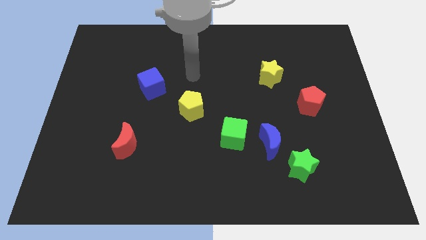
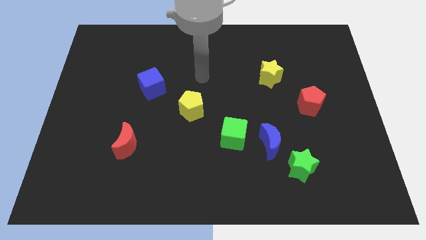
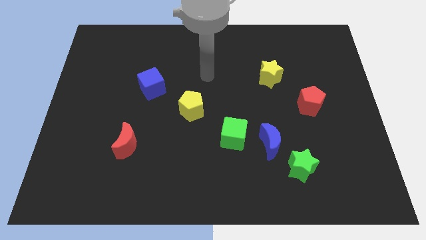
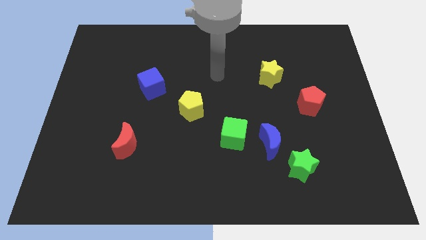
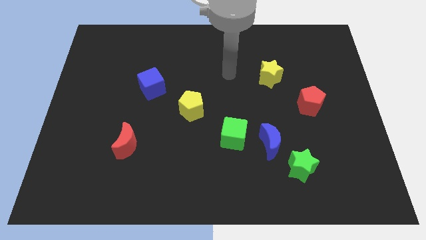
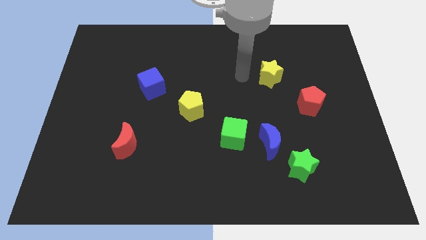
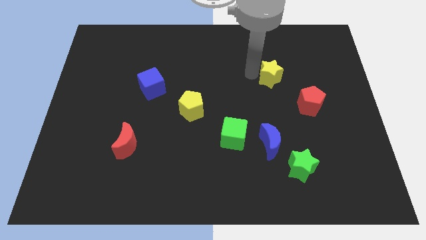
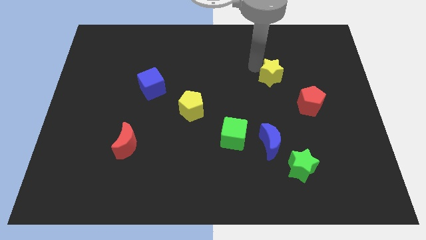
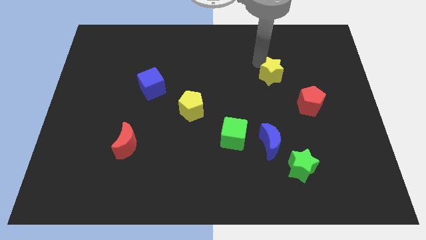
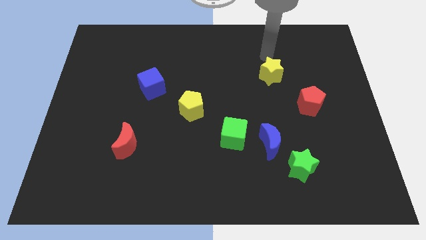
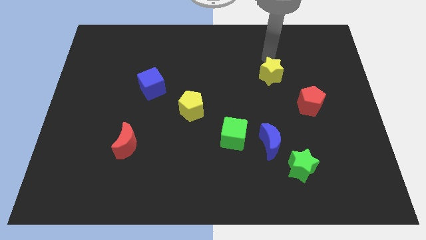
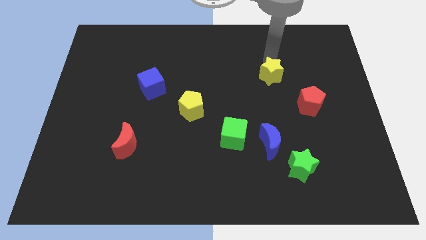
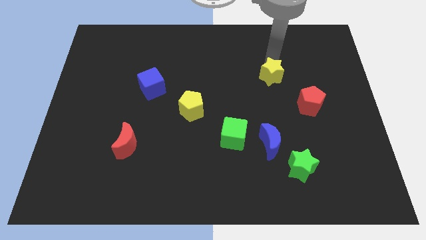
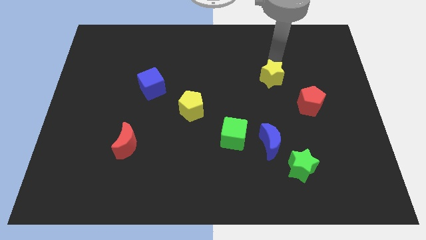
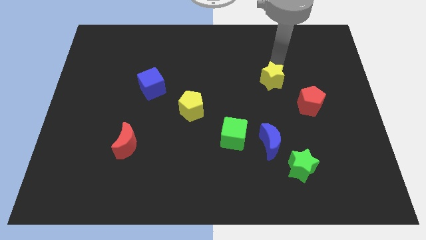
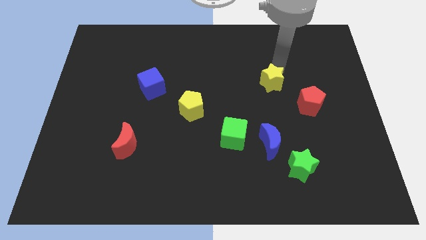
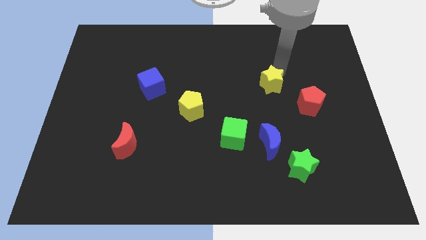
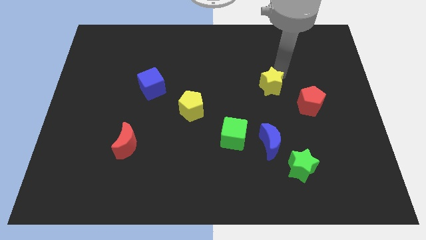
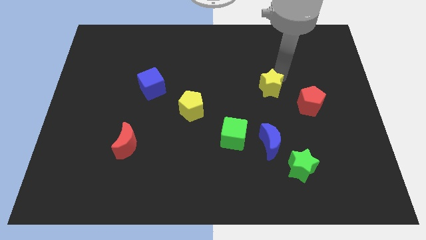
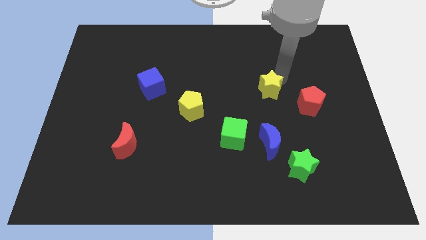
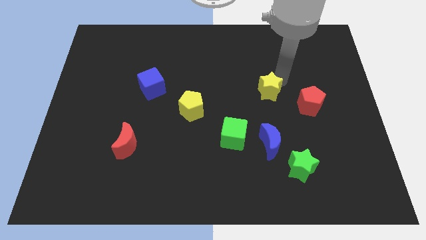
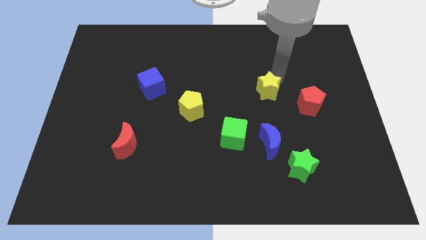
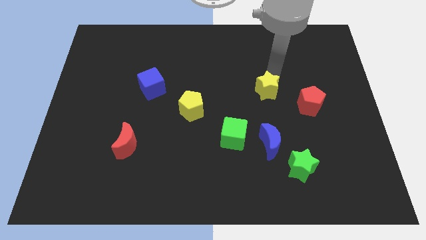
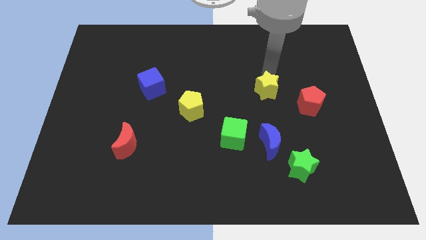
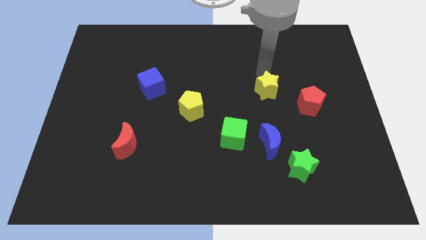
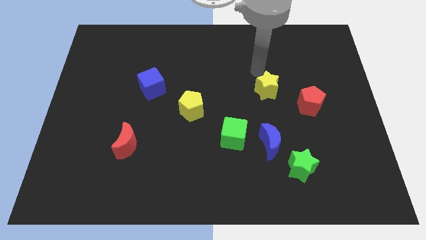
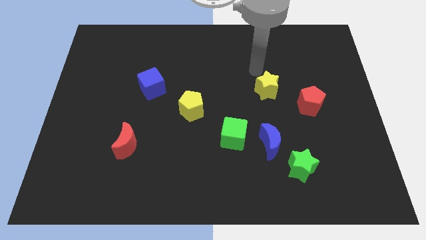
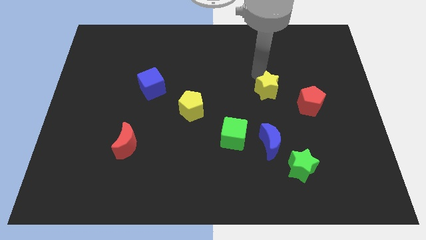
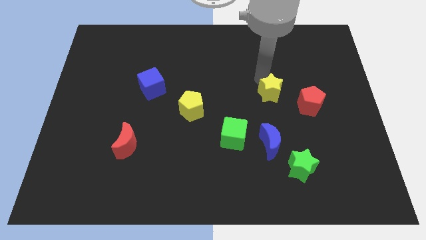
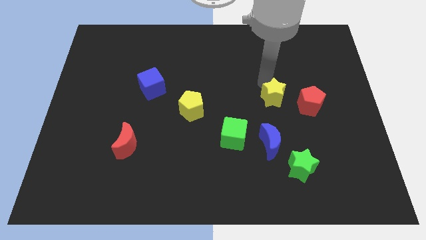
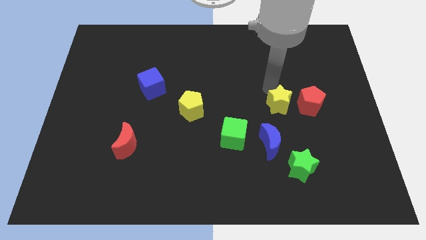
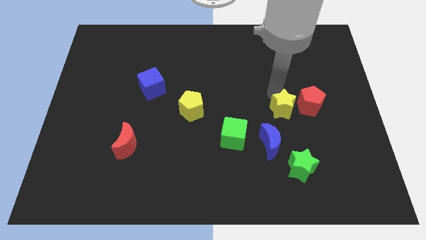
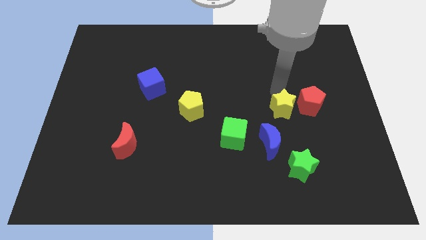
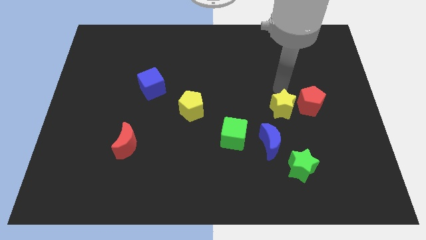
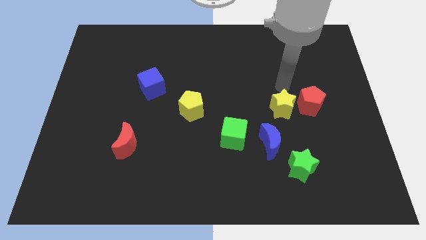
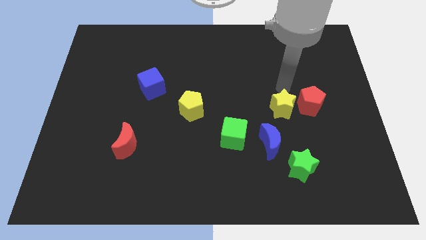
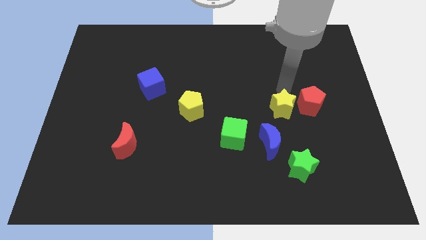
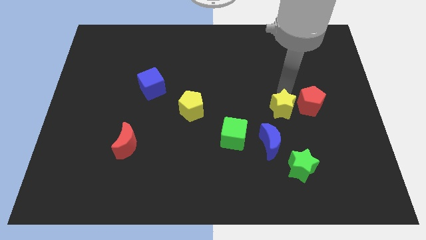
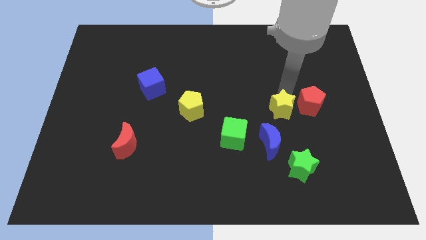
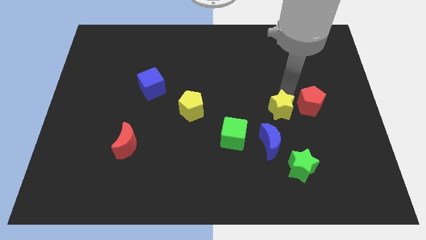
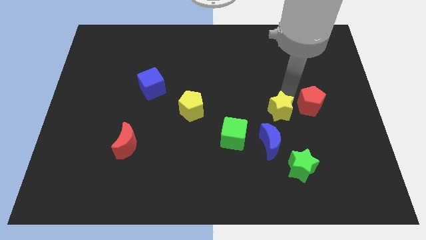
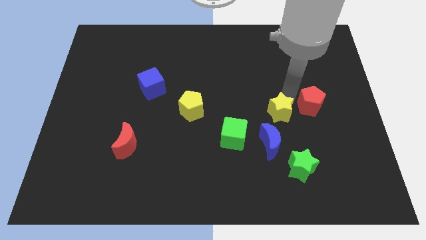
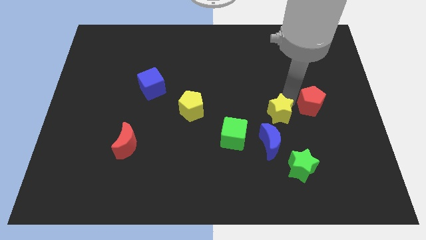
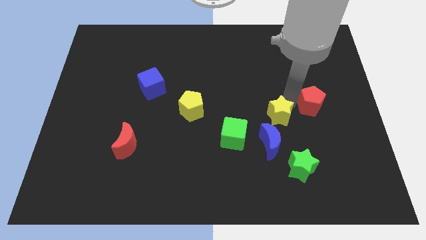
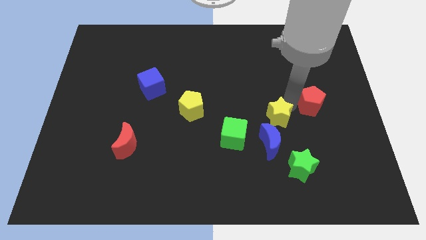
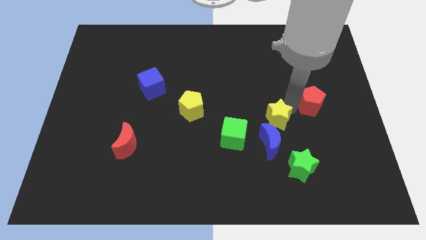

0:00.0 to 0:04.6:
put the yellow star to the right side of the green cube

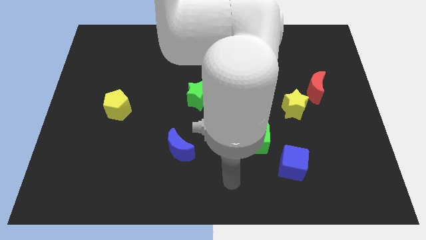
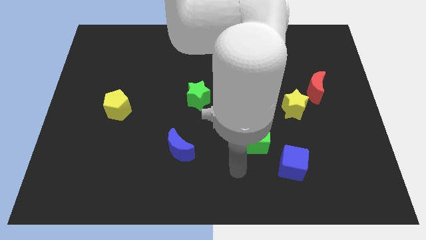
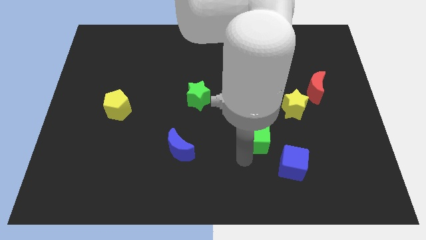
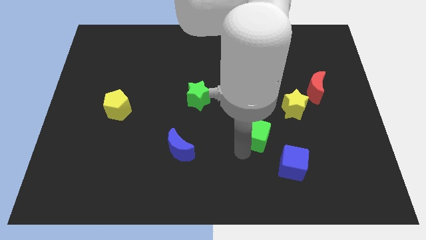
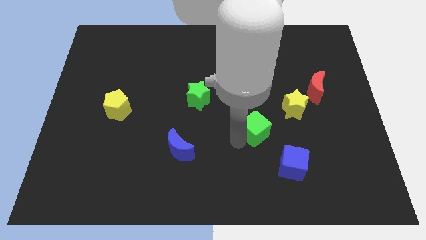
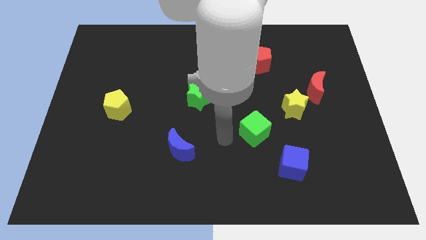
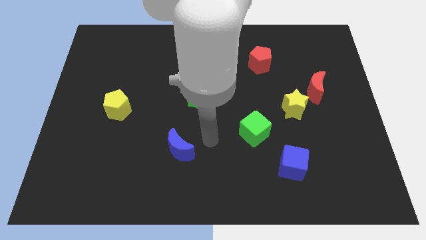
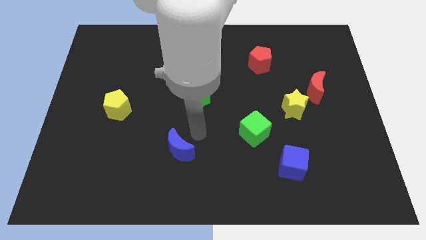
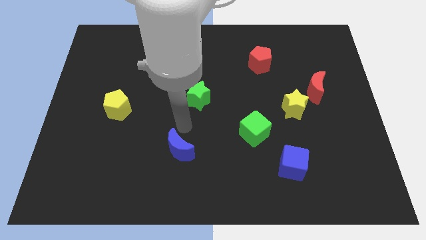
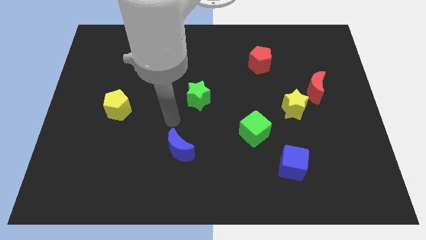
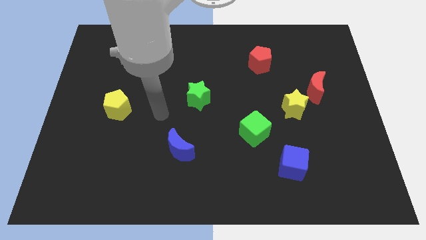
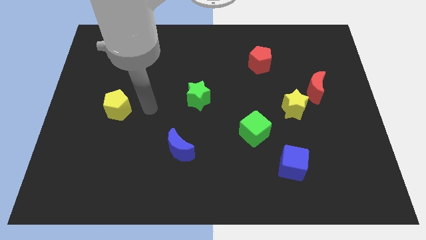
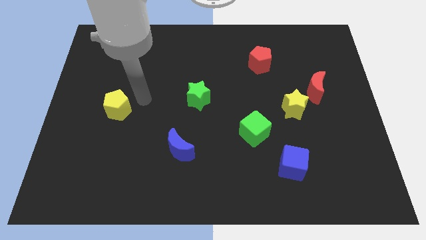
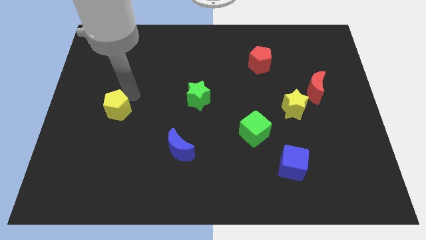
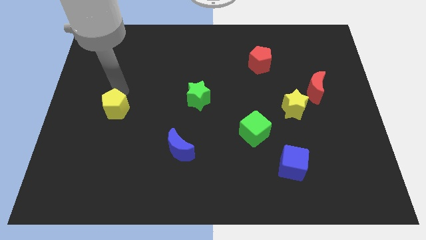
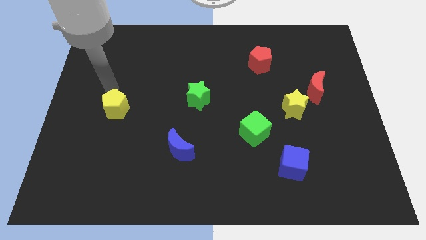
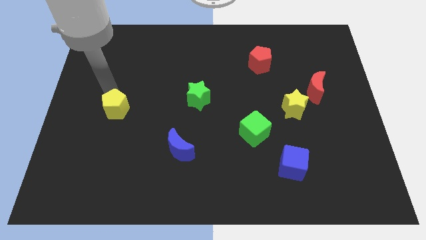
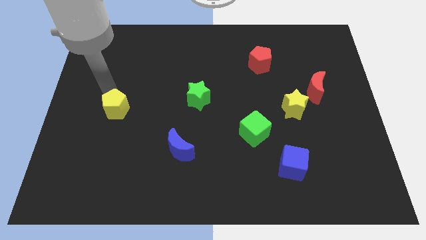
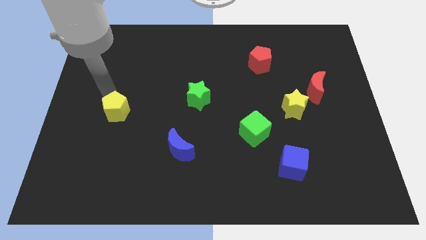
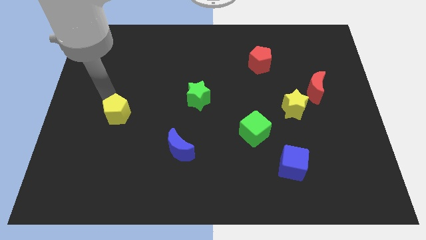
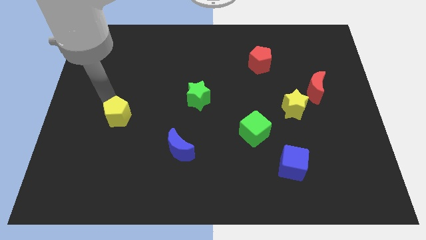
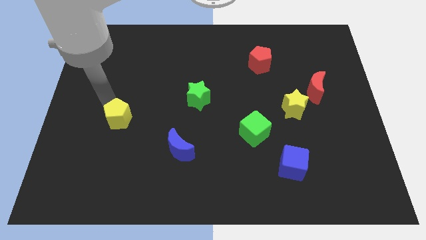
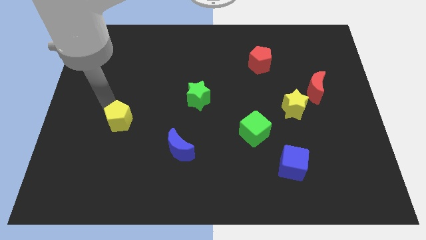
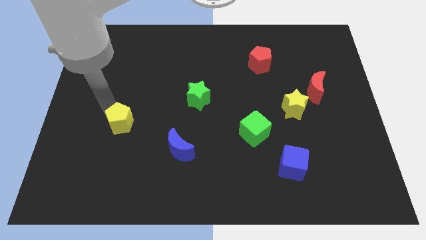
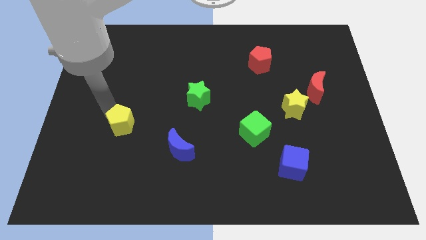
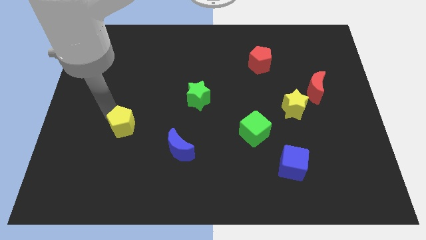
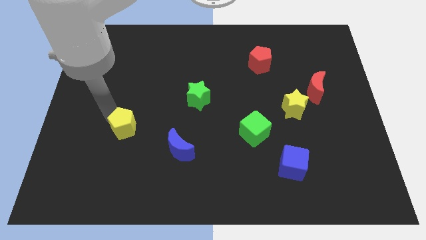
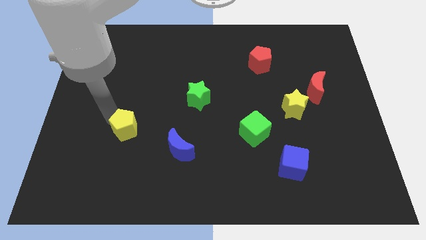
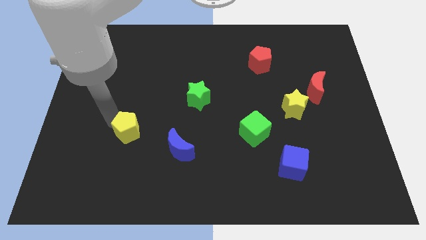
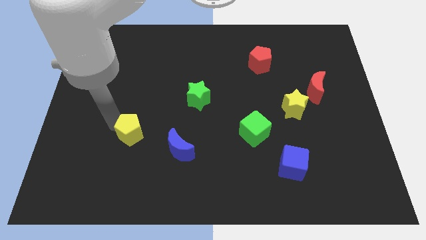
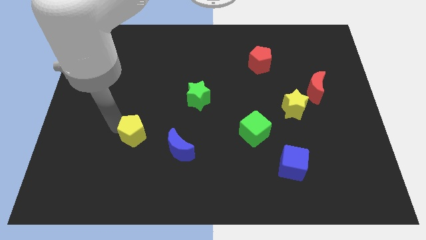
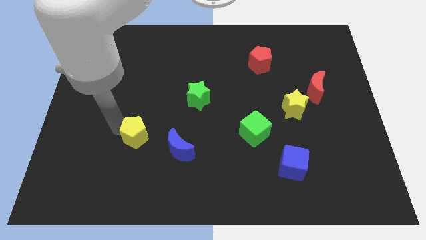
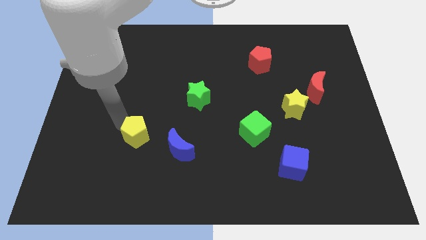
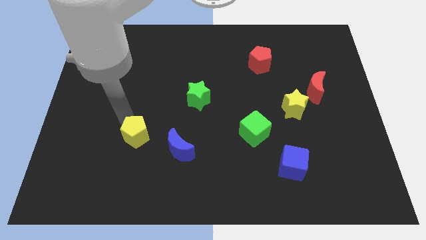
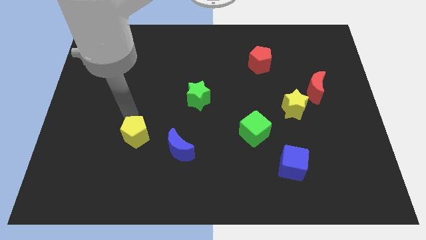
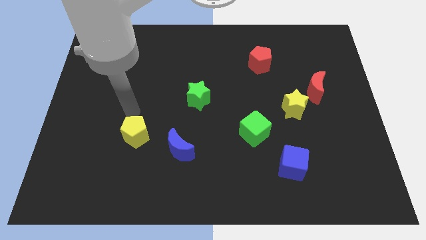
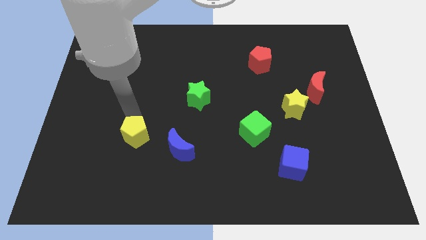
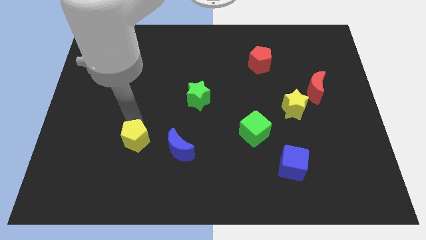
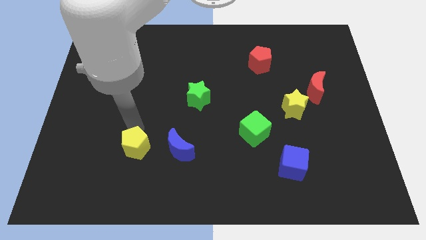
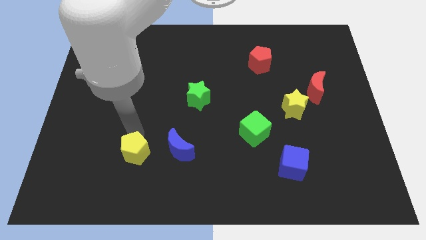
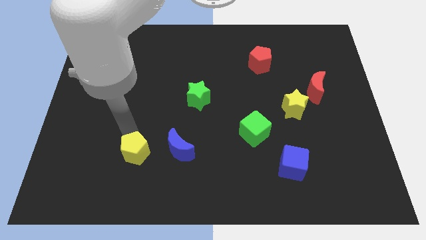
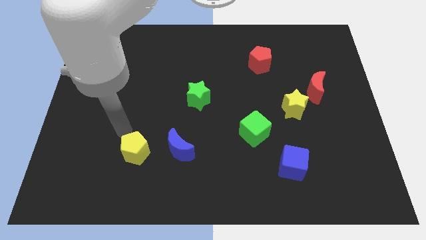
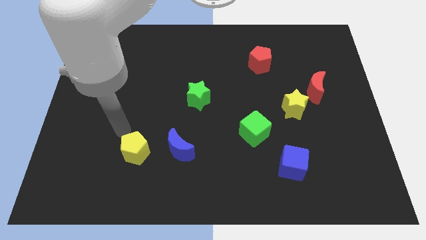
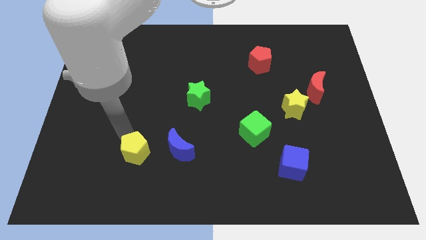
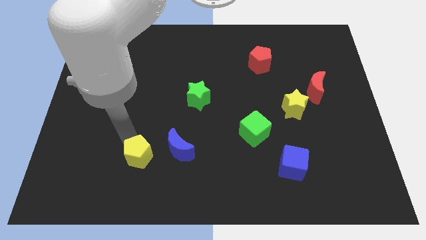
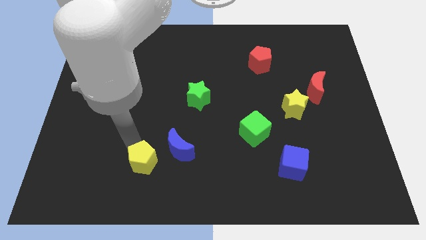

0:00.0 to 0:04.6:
move the yellow pentagon to the bottom left of the blue moon
